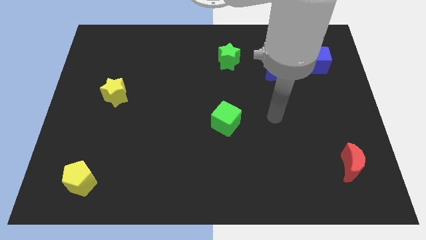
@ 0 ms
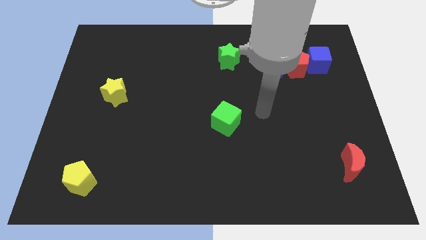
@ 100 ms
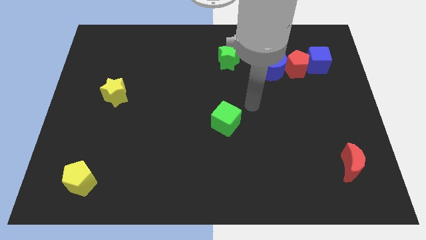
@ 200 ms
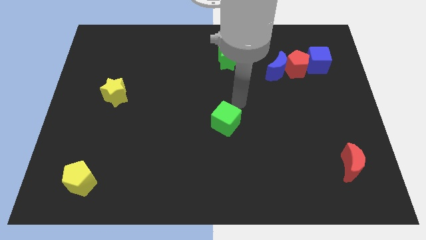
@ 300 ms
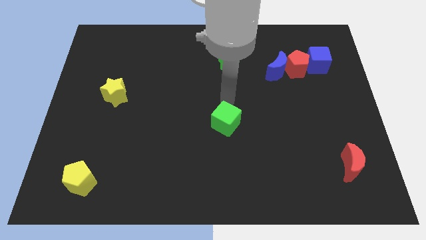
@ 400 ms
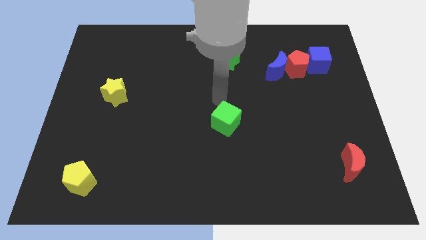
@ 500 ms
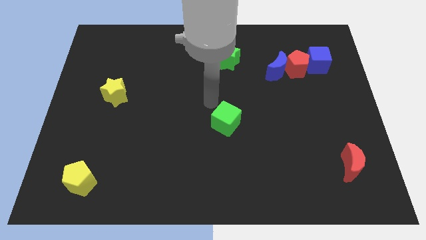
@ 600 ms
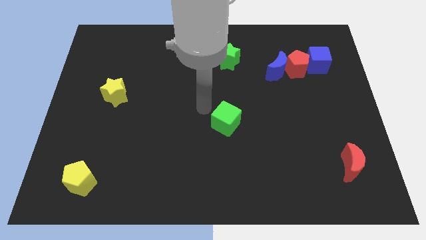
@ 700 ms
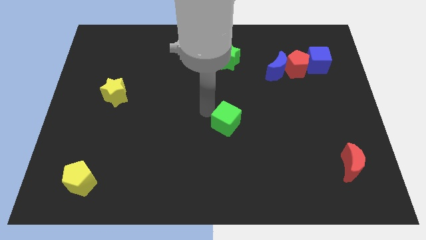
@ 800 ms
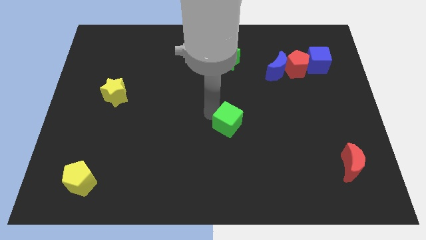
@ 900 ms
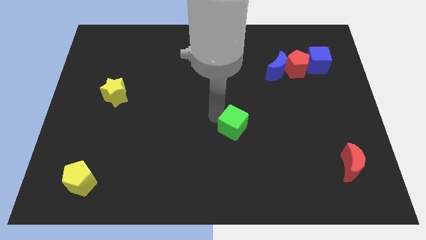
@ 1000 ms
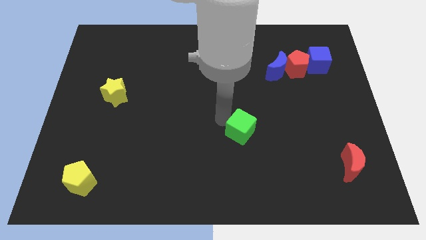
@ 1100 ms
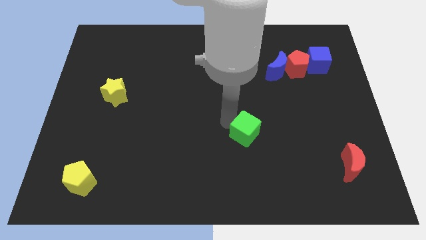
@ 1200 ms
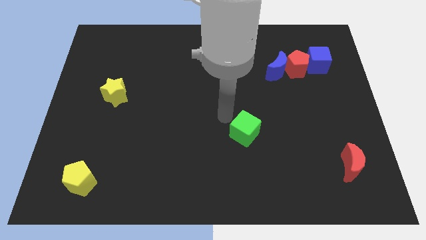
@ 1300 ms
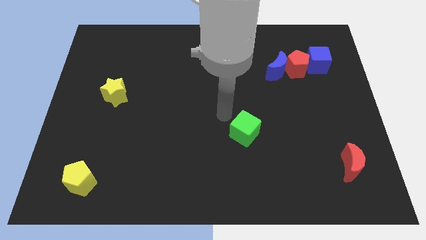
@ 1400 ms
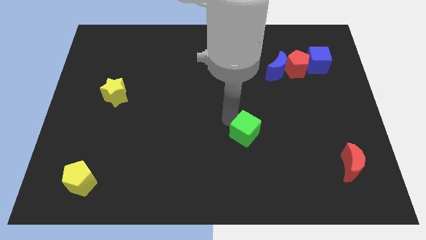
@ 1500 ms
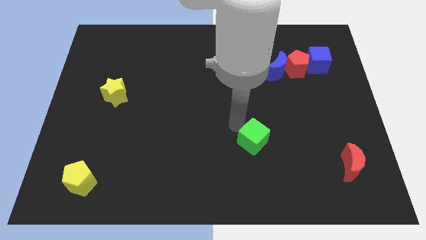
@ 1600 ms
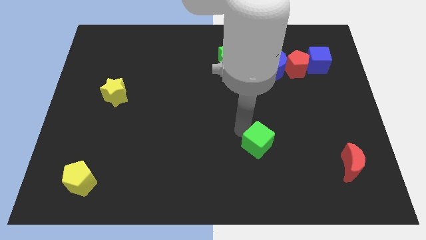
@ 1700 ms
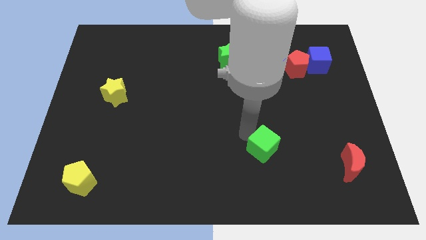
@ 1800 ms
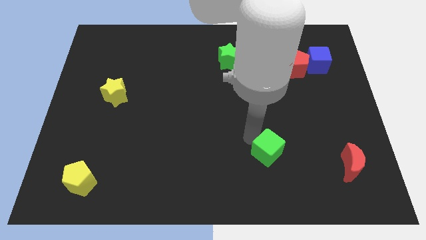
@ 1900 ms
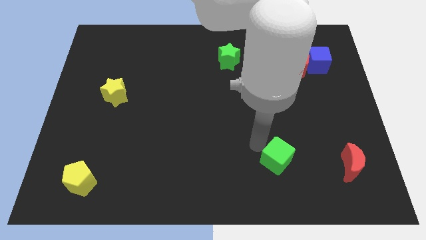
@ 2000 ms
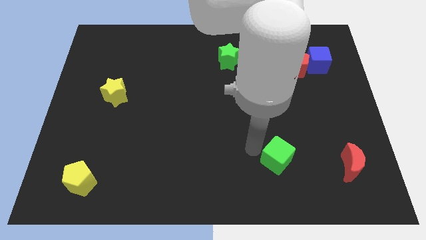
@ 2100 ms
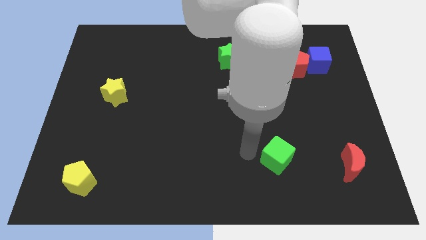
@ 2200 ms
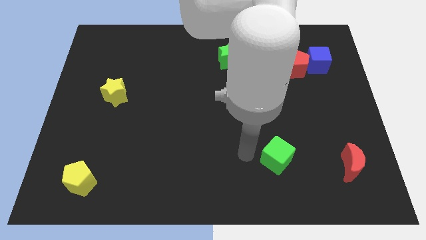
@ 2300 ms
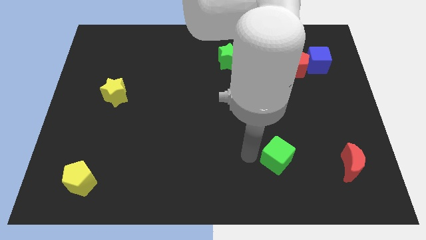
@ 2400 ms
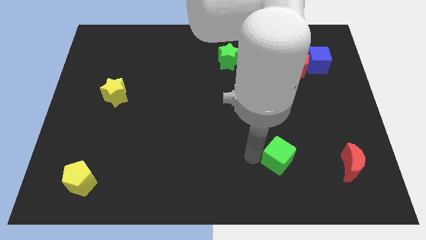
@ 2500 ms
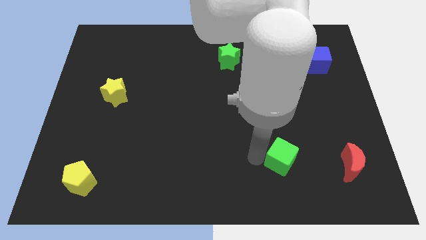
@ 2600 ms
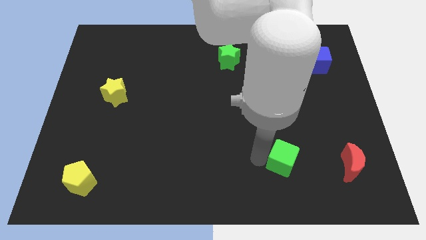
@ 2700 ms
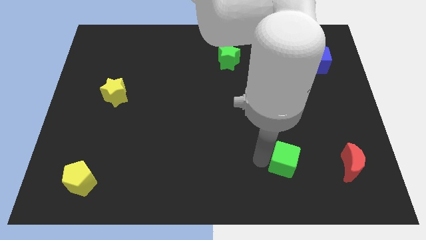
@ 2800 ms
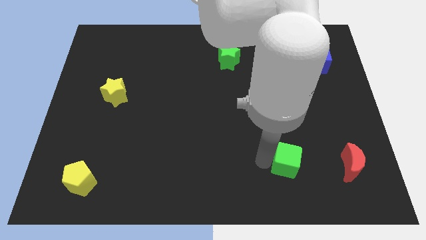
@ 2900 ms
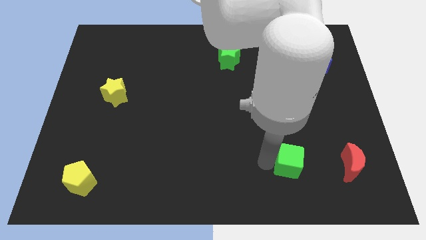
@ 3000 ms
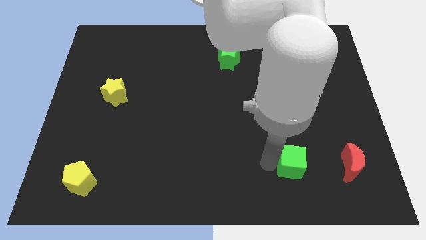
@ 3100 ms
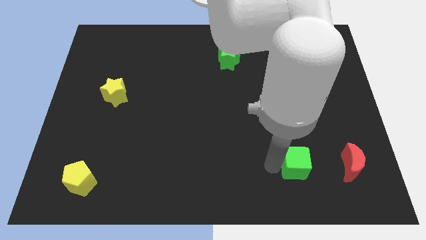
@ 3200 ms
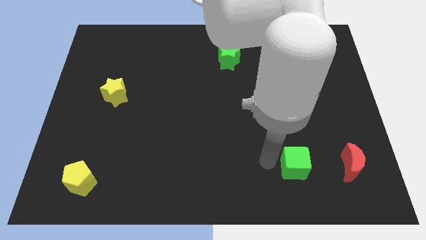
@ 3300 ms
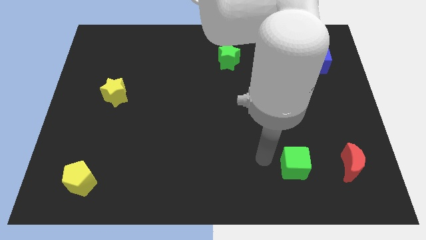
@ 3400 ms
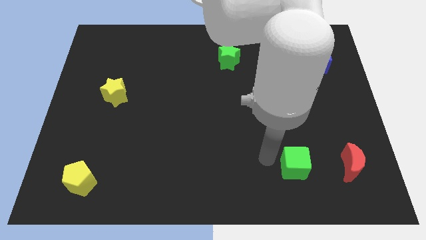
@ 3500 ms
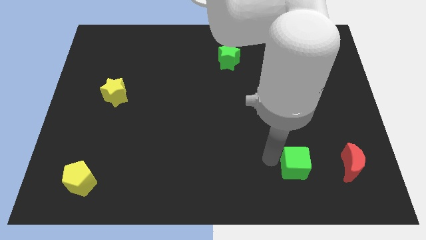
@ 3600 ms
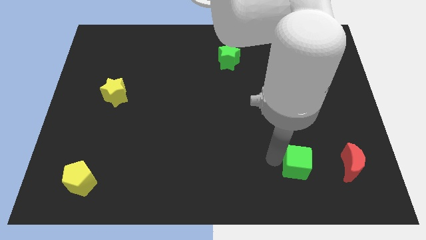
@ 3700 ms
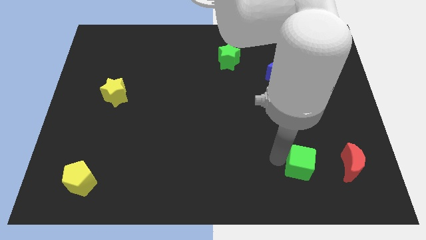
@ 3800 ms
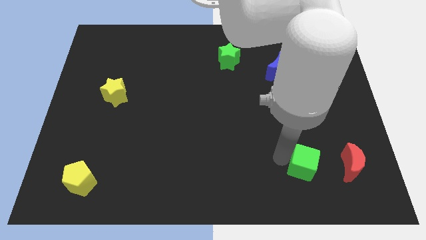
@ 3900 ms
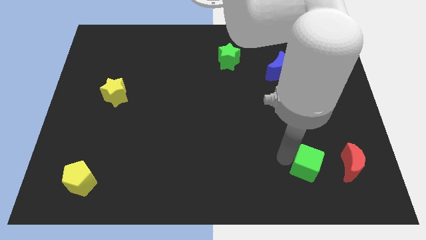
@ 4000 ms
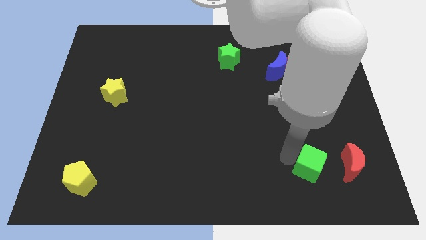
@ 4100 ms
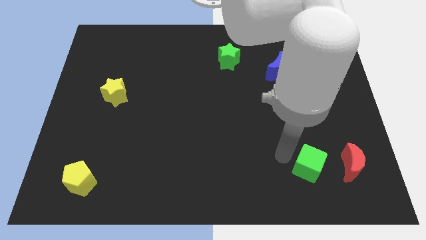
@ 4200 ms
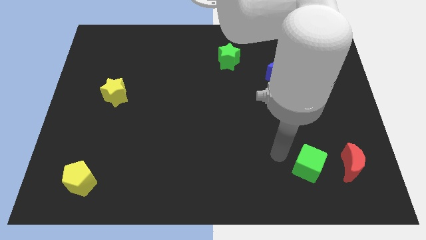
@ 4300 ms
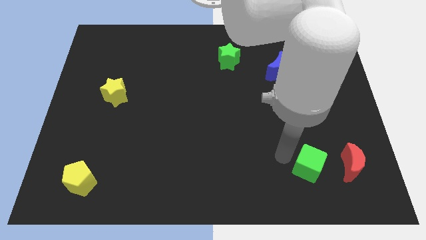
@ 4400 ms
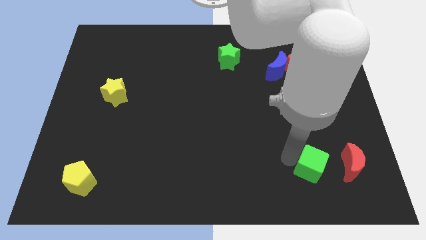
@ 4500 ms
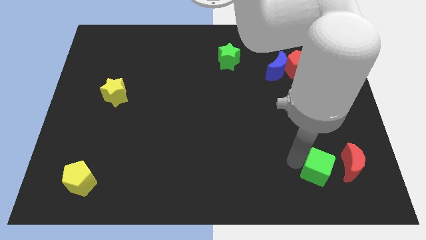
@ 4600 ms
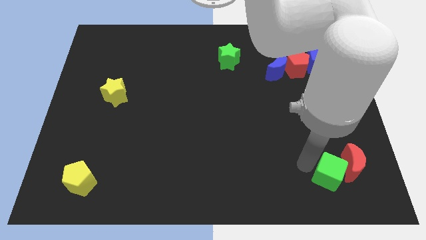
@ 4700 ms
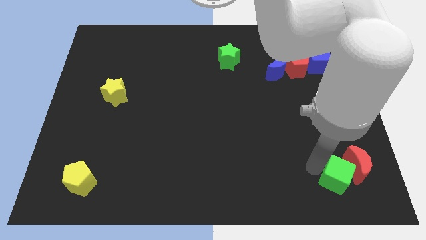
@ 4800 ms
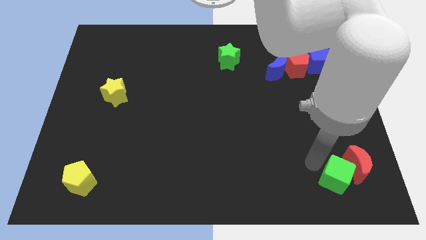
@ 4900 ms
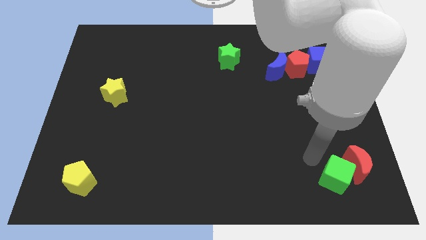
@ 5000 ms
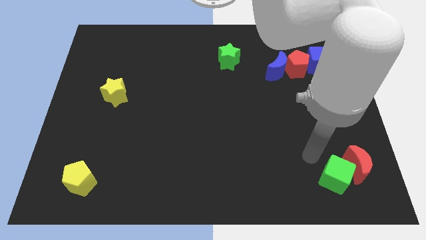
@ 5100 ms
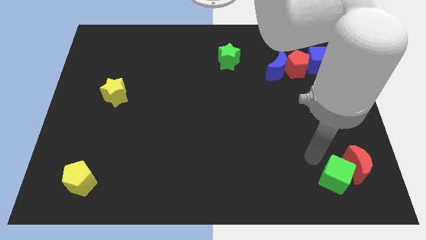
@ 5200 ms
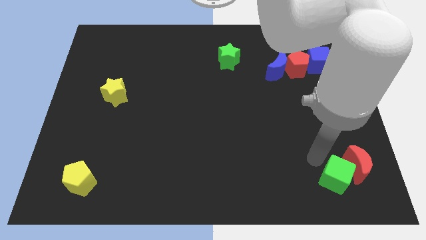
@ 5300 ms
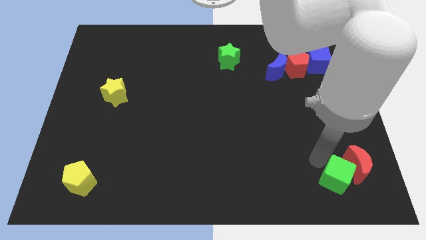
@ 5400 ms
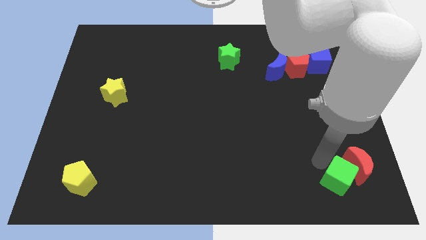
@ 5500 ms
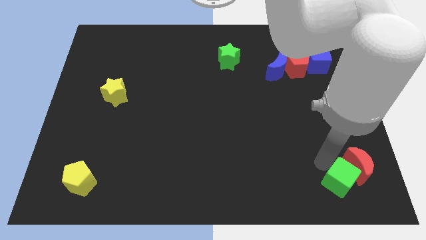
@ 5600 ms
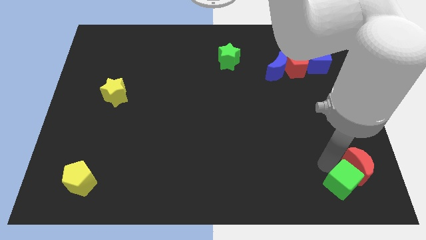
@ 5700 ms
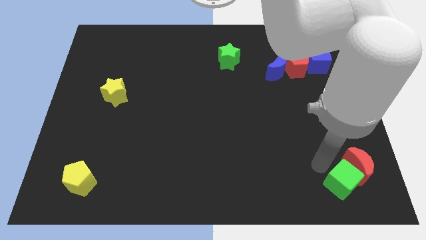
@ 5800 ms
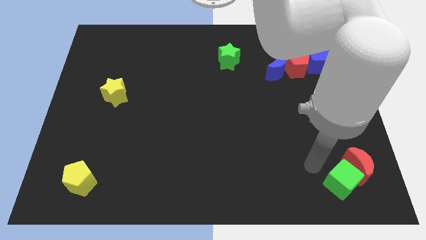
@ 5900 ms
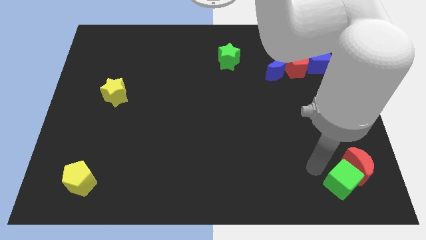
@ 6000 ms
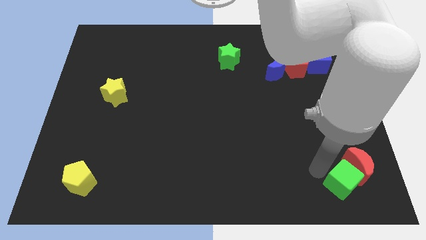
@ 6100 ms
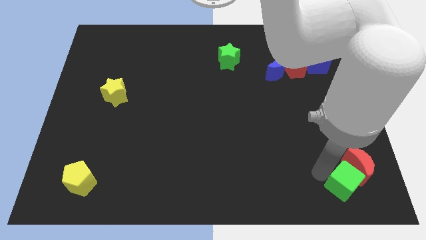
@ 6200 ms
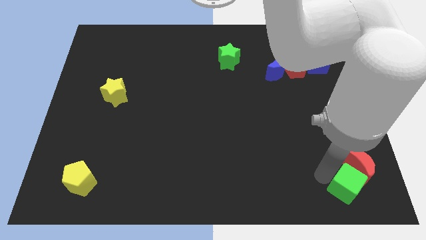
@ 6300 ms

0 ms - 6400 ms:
move the green cube to the bottom right
